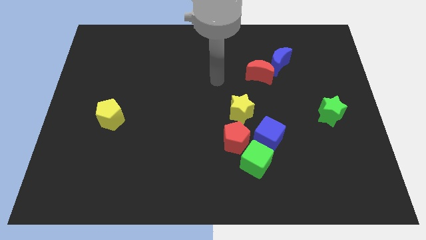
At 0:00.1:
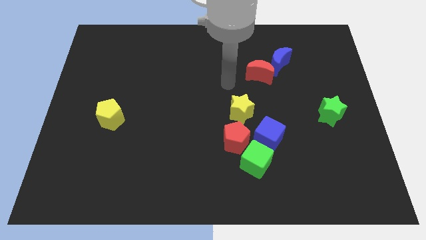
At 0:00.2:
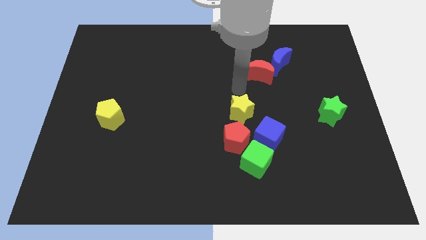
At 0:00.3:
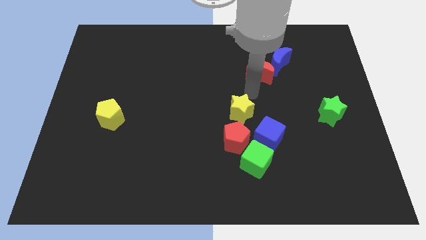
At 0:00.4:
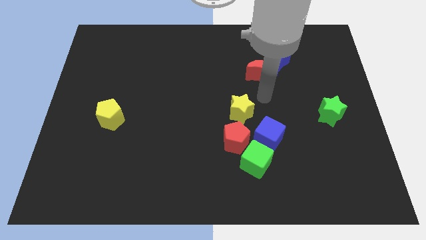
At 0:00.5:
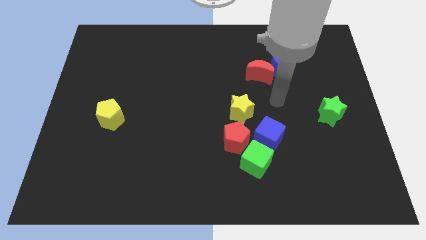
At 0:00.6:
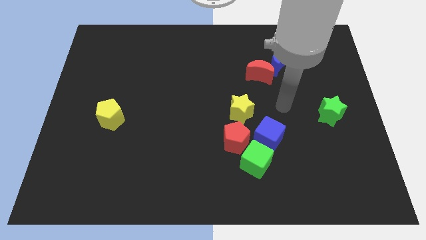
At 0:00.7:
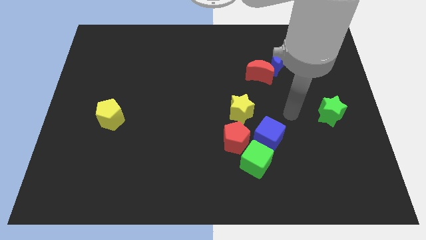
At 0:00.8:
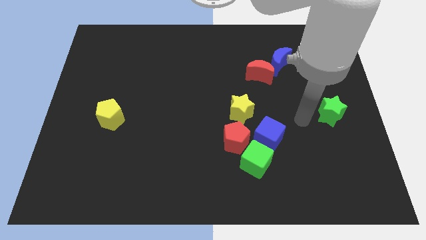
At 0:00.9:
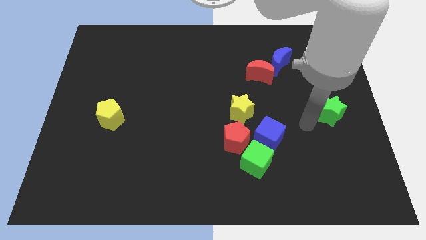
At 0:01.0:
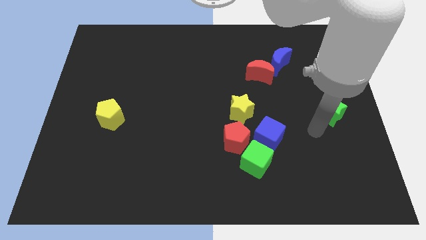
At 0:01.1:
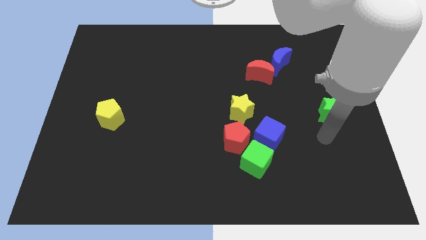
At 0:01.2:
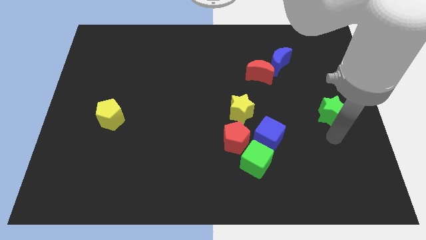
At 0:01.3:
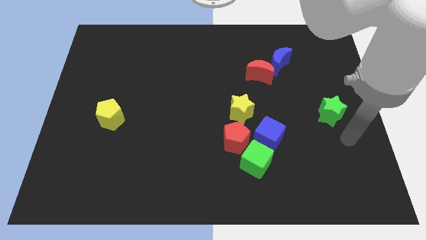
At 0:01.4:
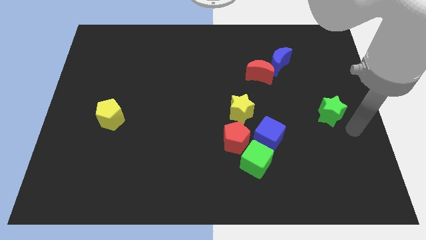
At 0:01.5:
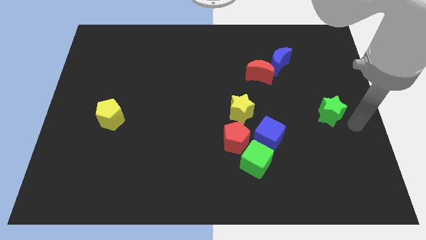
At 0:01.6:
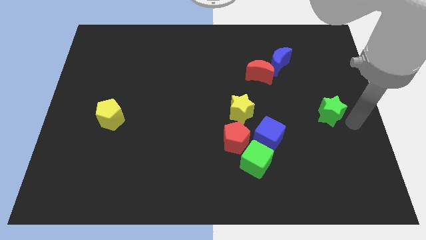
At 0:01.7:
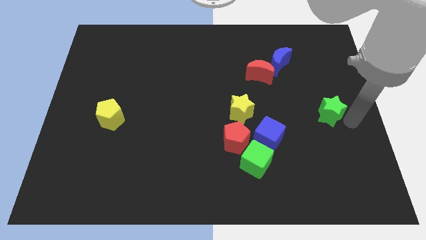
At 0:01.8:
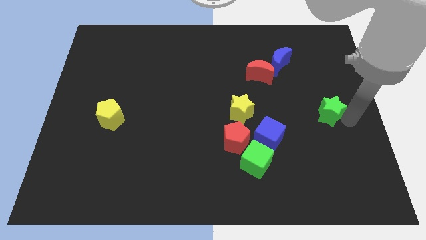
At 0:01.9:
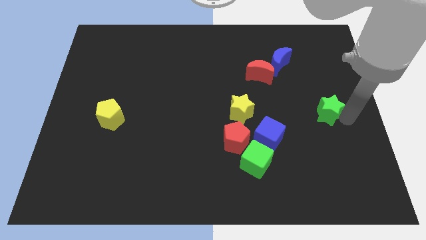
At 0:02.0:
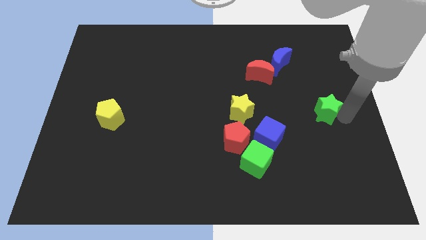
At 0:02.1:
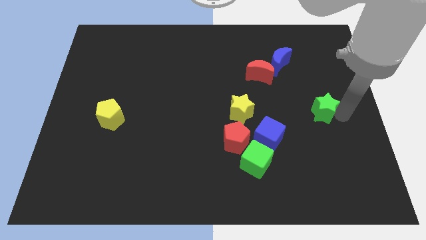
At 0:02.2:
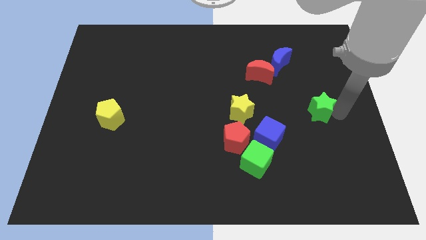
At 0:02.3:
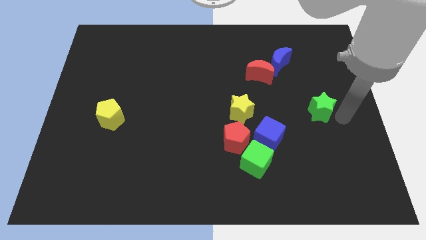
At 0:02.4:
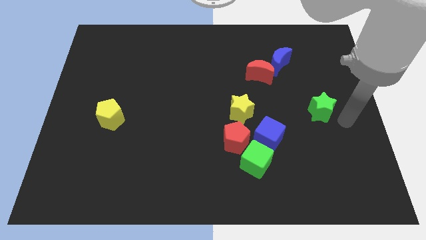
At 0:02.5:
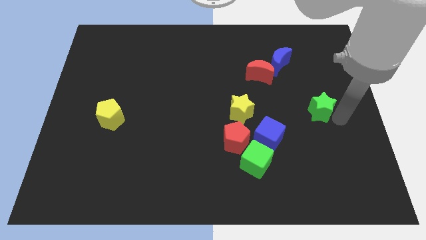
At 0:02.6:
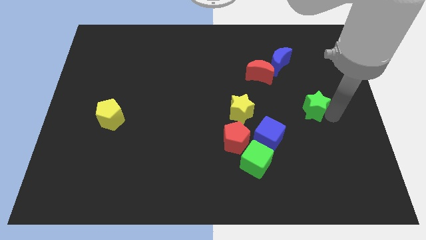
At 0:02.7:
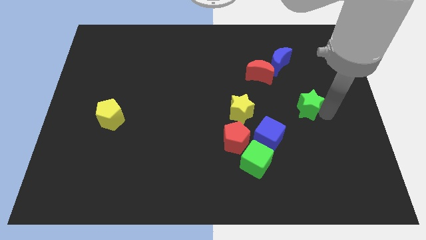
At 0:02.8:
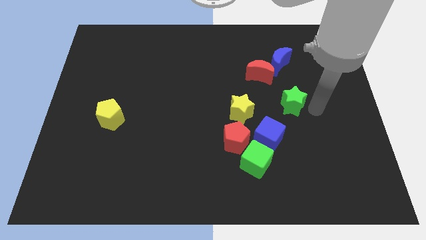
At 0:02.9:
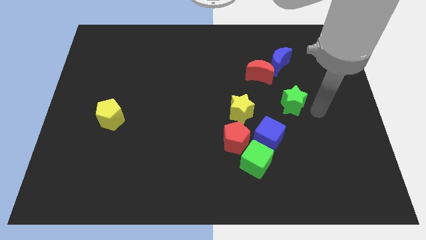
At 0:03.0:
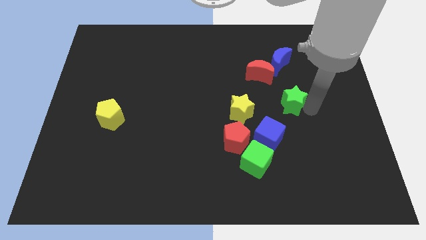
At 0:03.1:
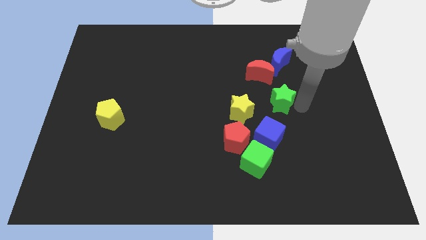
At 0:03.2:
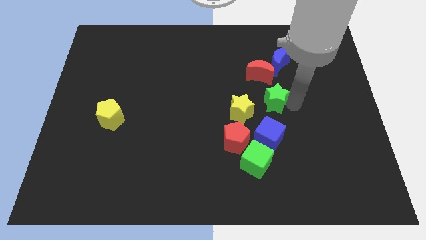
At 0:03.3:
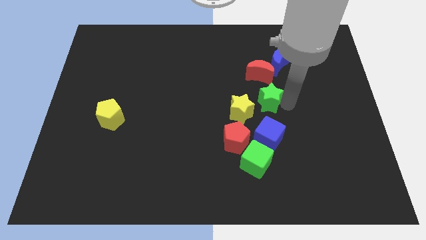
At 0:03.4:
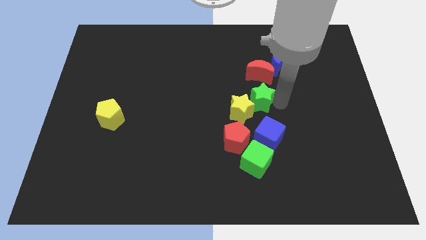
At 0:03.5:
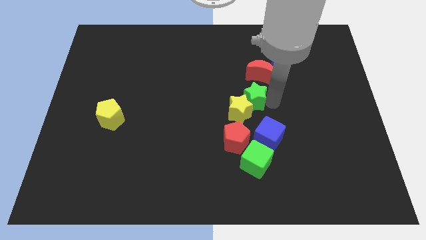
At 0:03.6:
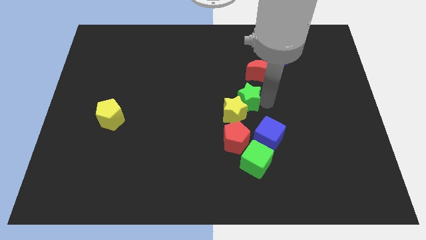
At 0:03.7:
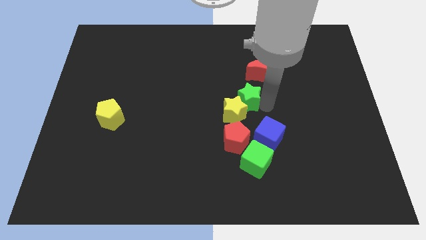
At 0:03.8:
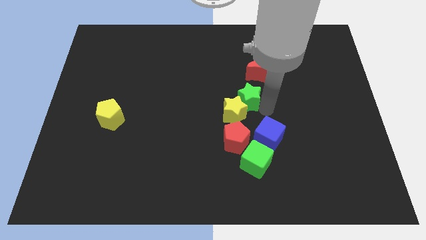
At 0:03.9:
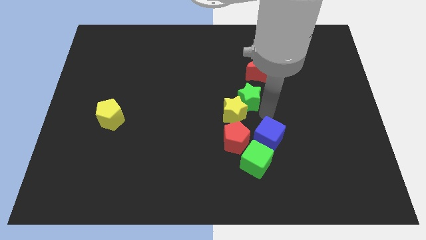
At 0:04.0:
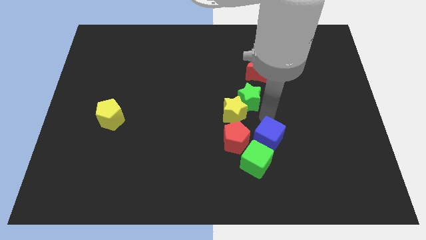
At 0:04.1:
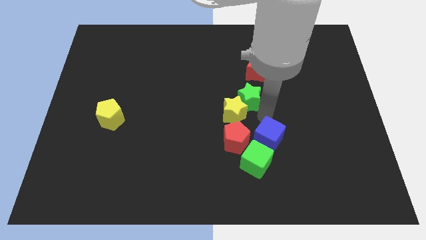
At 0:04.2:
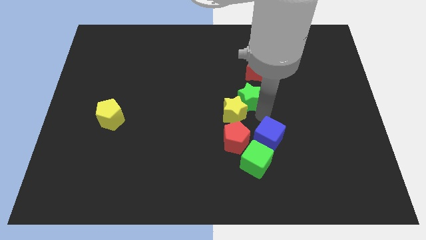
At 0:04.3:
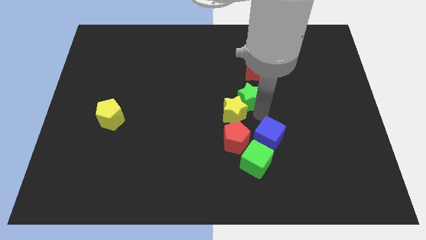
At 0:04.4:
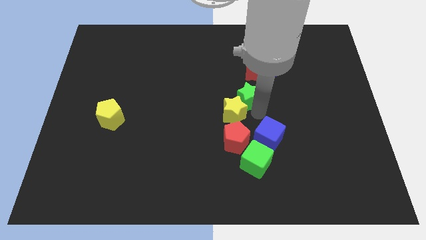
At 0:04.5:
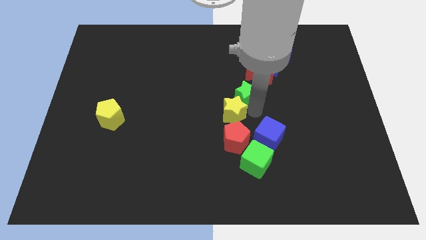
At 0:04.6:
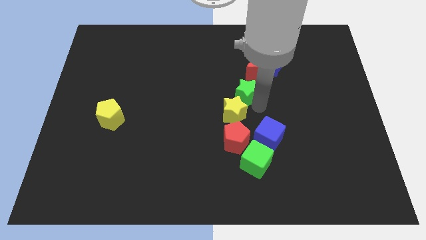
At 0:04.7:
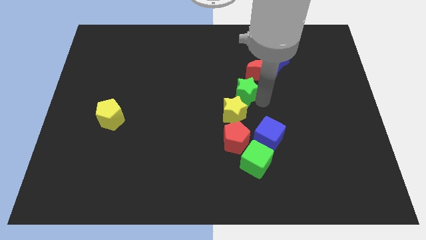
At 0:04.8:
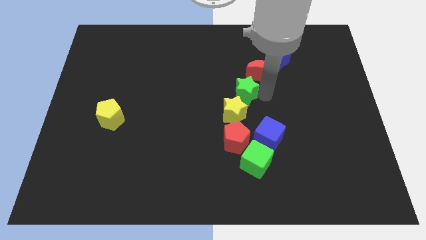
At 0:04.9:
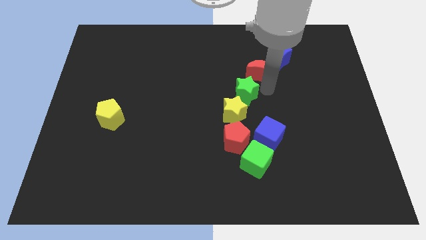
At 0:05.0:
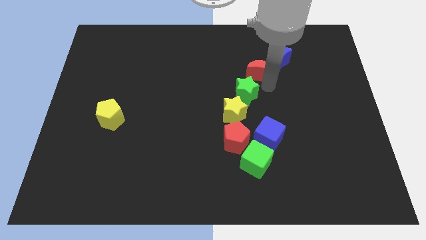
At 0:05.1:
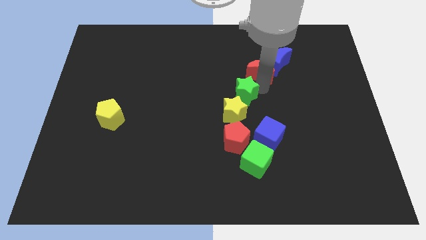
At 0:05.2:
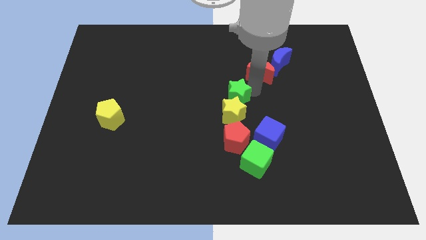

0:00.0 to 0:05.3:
slide the green star left

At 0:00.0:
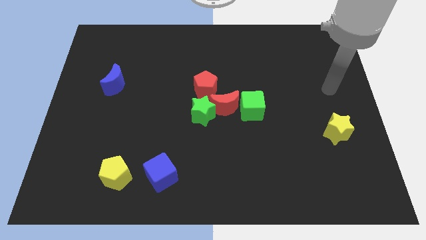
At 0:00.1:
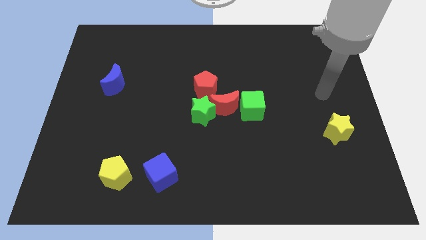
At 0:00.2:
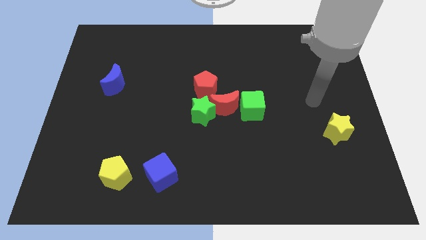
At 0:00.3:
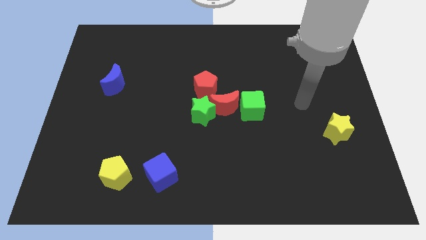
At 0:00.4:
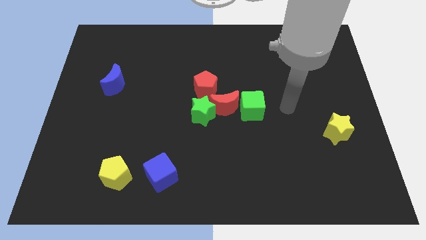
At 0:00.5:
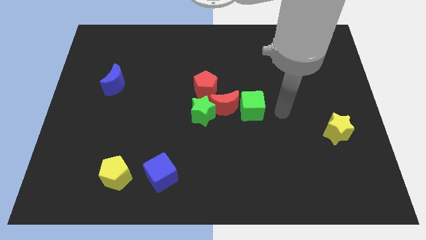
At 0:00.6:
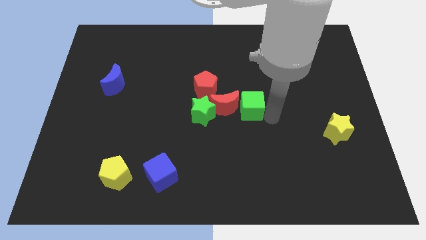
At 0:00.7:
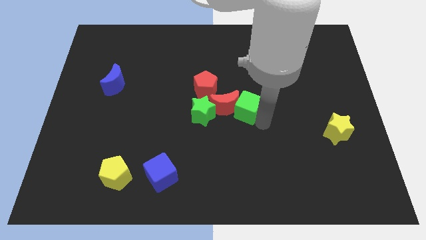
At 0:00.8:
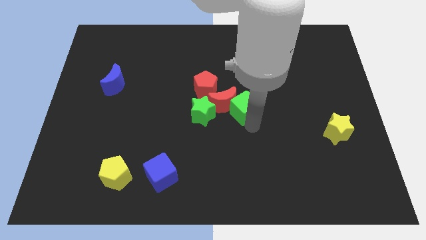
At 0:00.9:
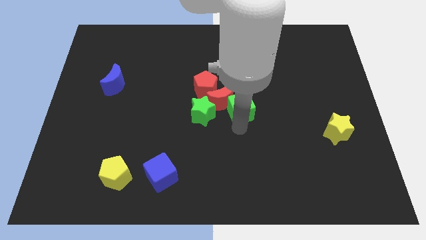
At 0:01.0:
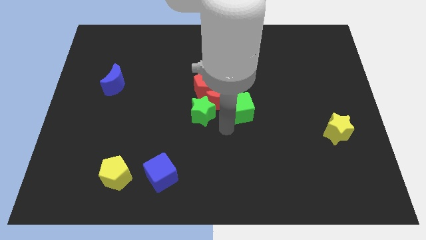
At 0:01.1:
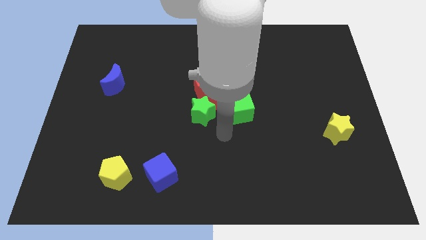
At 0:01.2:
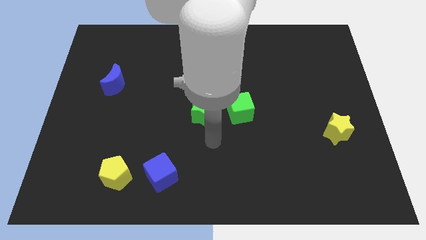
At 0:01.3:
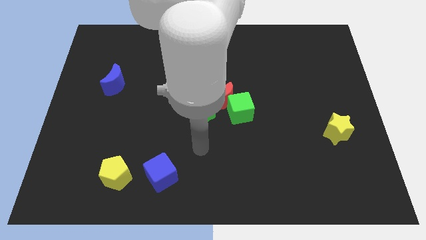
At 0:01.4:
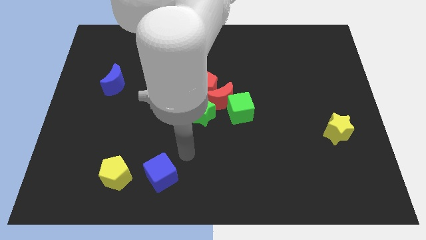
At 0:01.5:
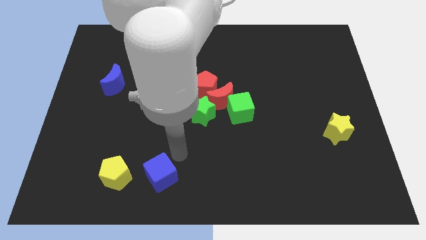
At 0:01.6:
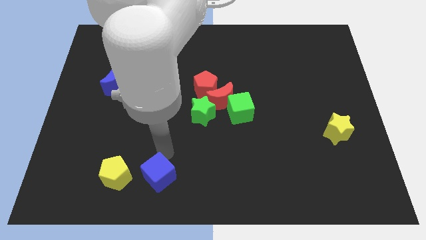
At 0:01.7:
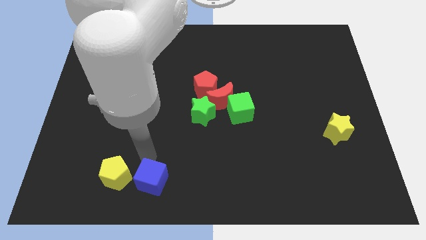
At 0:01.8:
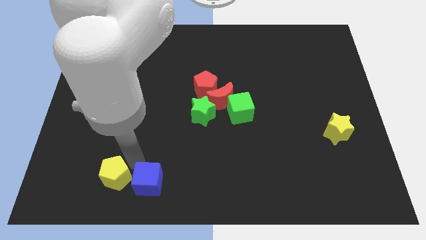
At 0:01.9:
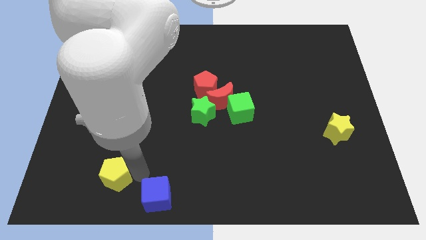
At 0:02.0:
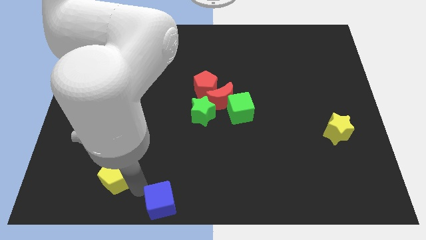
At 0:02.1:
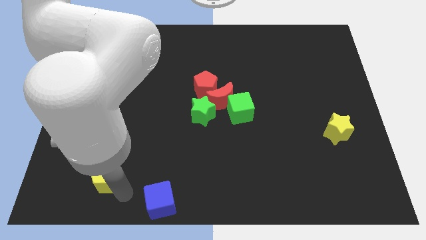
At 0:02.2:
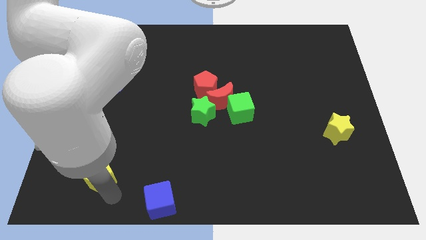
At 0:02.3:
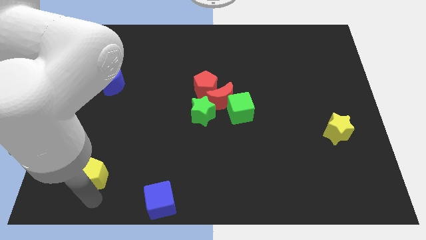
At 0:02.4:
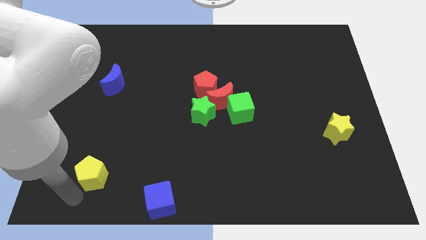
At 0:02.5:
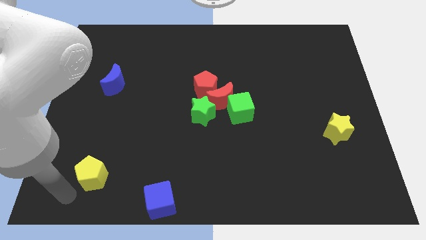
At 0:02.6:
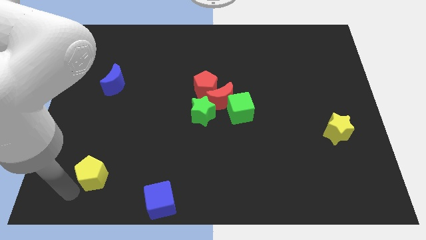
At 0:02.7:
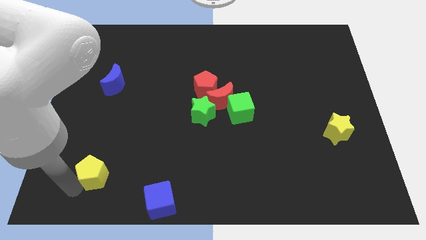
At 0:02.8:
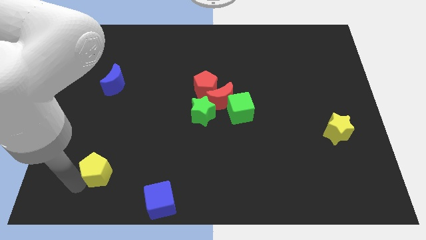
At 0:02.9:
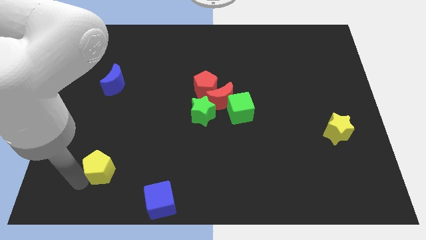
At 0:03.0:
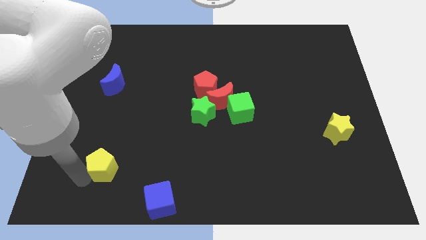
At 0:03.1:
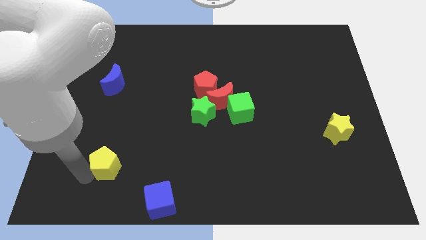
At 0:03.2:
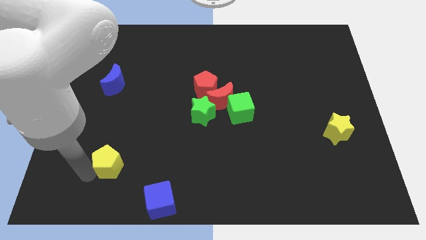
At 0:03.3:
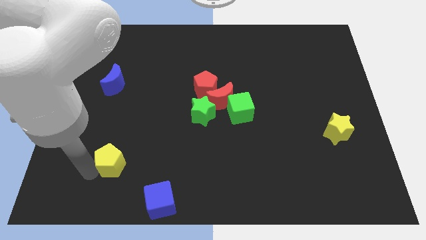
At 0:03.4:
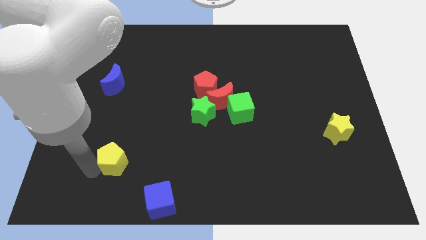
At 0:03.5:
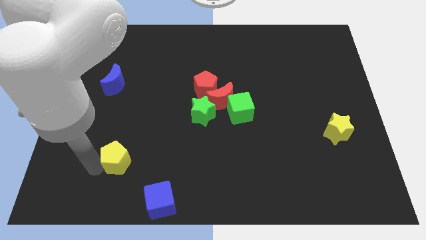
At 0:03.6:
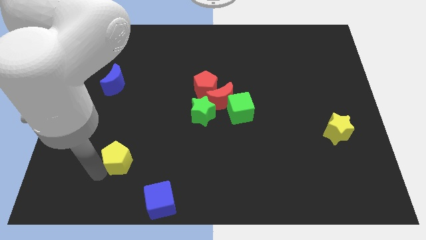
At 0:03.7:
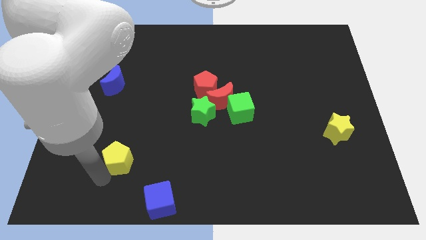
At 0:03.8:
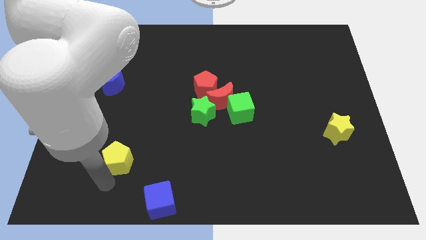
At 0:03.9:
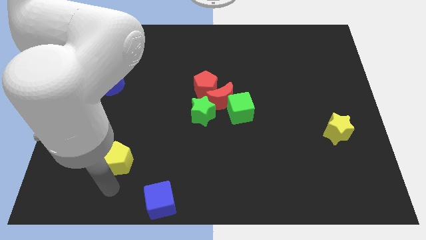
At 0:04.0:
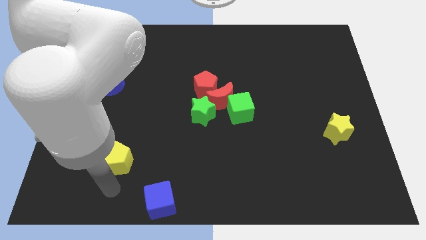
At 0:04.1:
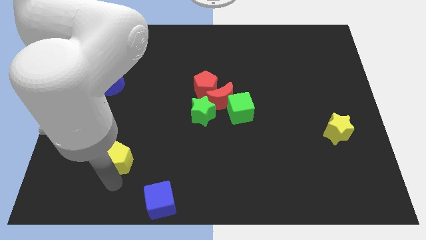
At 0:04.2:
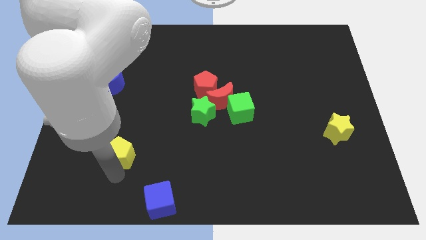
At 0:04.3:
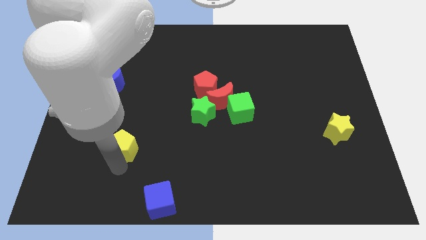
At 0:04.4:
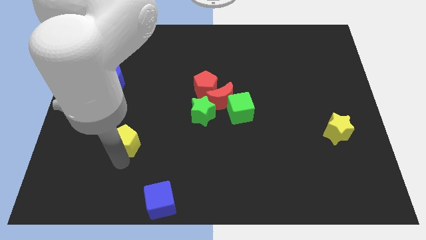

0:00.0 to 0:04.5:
slightly push the yellow pentagon upwards
